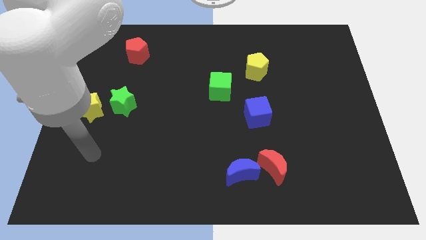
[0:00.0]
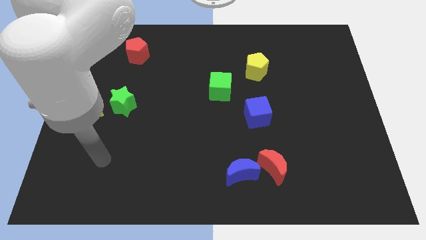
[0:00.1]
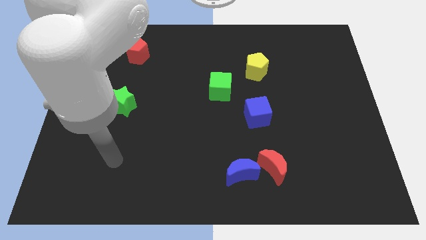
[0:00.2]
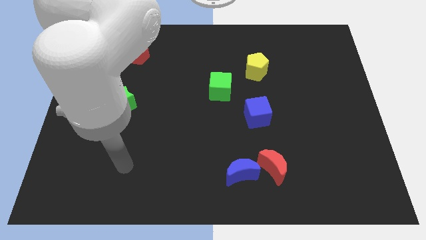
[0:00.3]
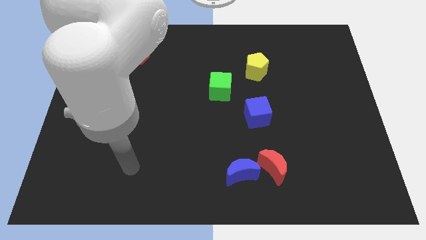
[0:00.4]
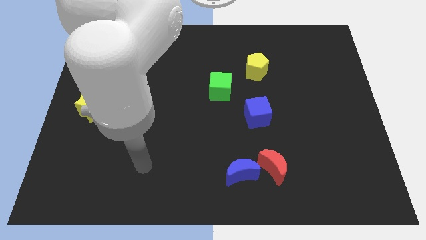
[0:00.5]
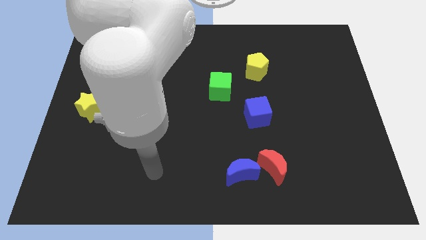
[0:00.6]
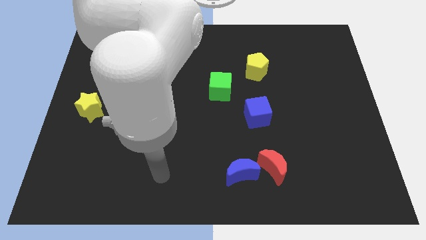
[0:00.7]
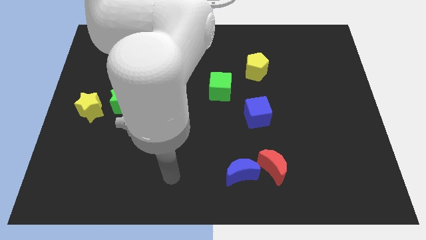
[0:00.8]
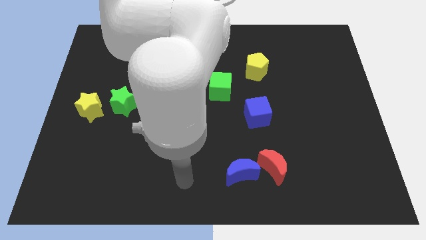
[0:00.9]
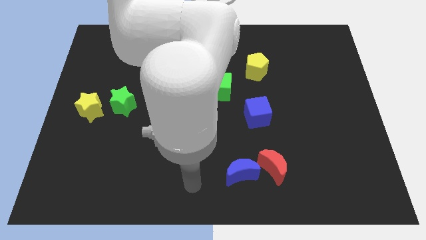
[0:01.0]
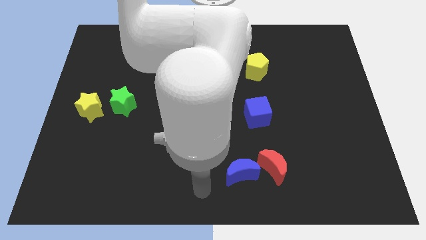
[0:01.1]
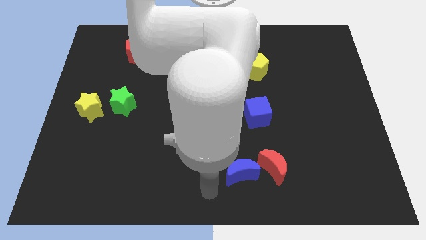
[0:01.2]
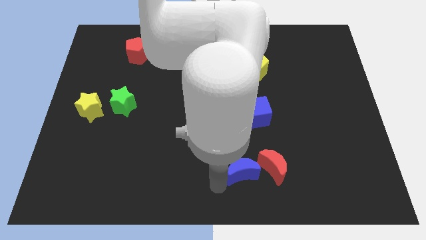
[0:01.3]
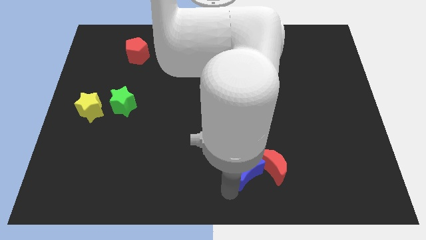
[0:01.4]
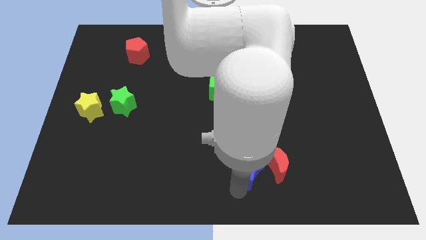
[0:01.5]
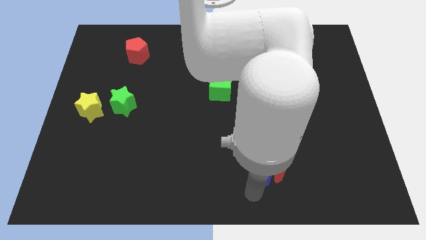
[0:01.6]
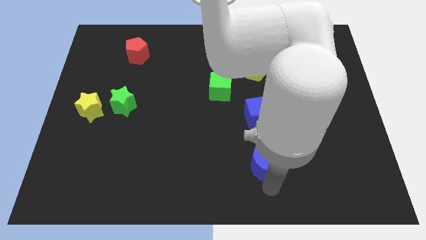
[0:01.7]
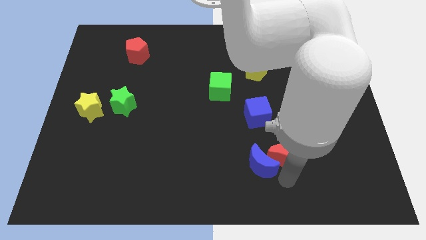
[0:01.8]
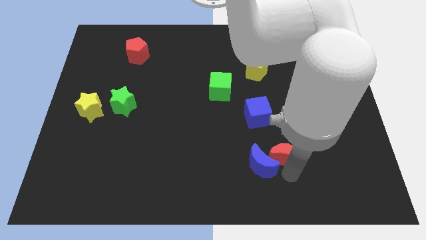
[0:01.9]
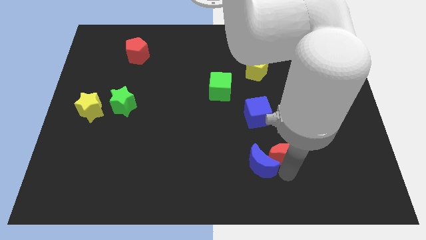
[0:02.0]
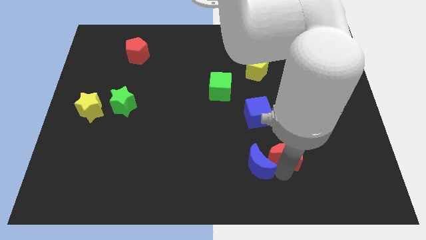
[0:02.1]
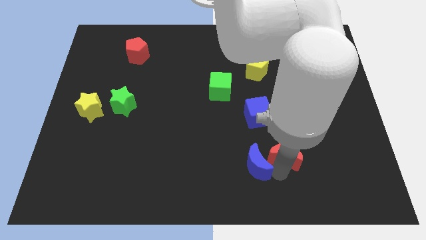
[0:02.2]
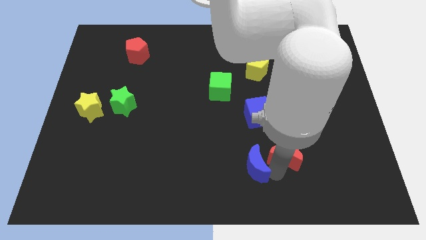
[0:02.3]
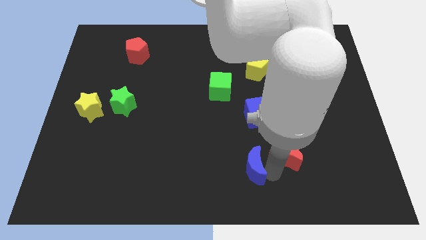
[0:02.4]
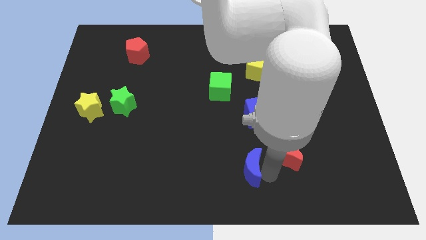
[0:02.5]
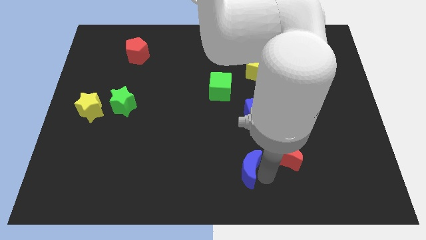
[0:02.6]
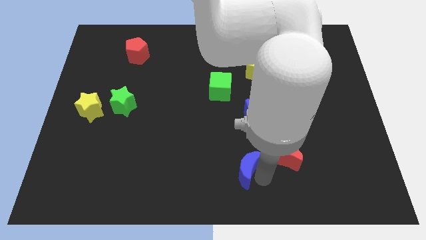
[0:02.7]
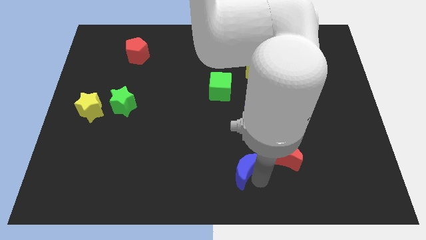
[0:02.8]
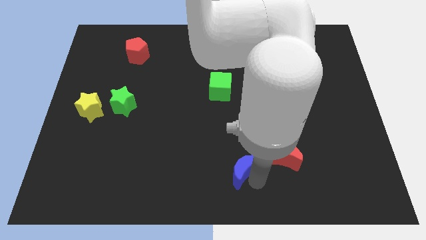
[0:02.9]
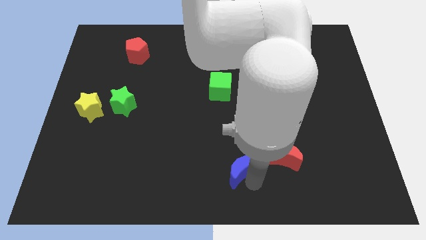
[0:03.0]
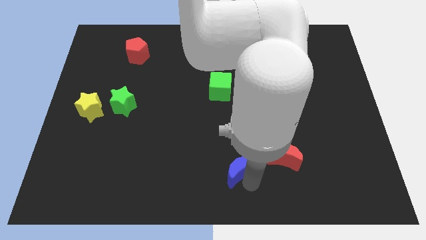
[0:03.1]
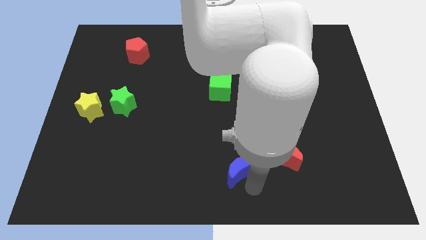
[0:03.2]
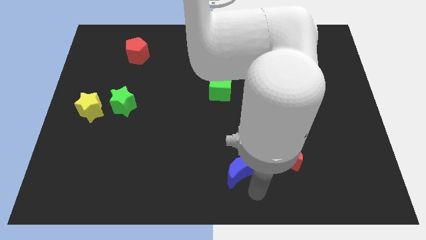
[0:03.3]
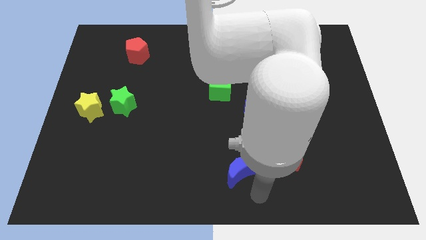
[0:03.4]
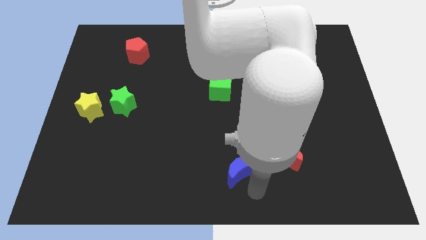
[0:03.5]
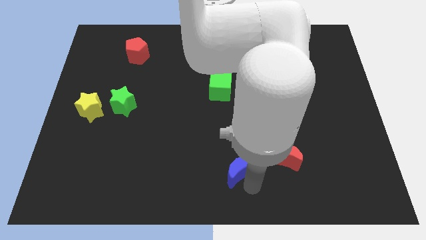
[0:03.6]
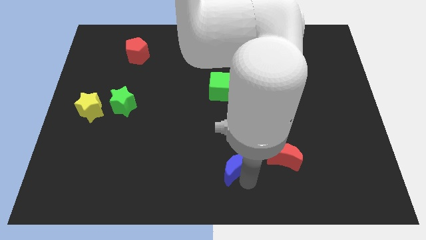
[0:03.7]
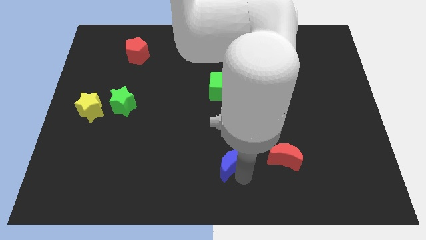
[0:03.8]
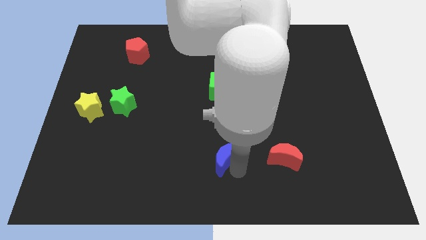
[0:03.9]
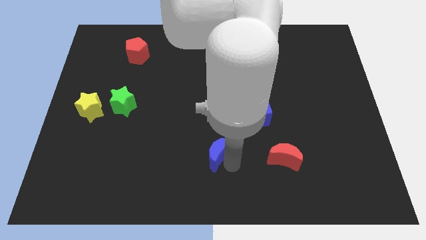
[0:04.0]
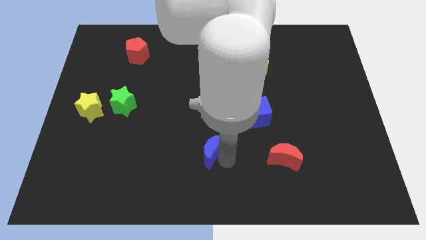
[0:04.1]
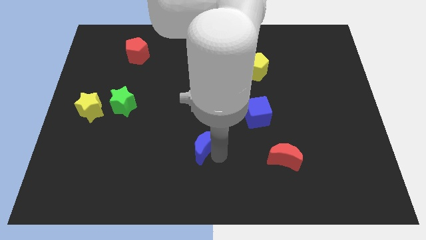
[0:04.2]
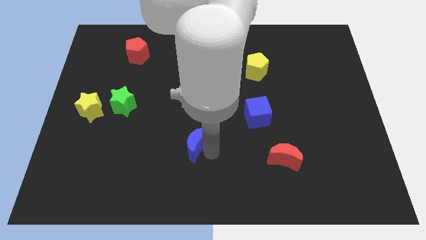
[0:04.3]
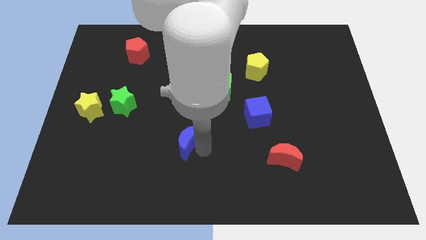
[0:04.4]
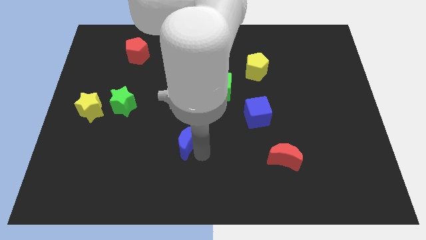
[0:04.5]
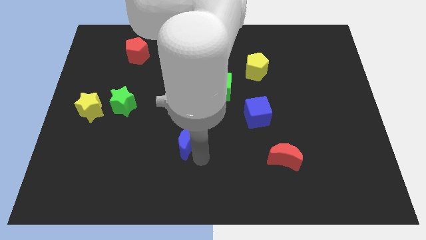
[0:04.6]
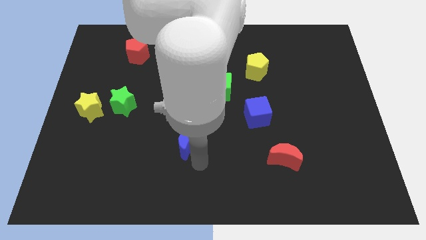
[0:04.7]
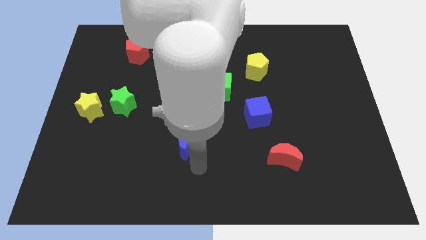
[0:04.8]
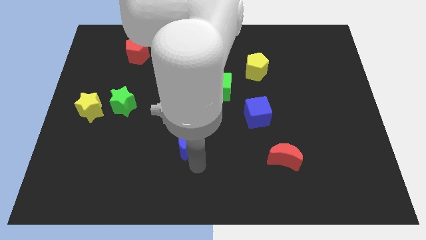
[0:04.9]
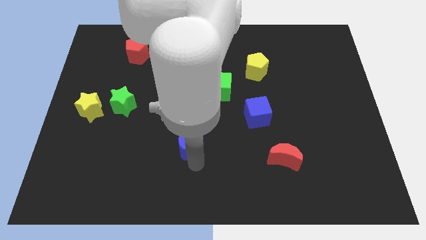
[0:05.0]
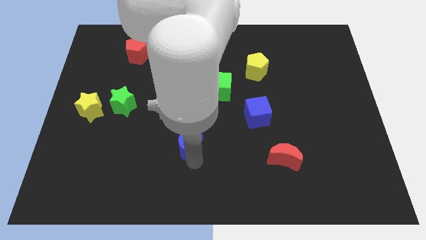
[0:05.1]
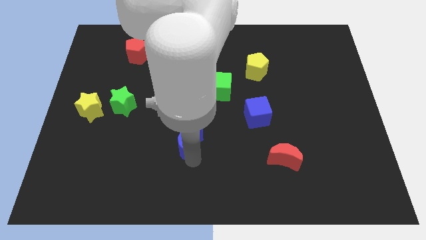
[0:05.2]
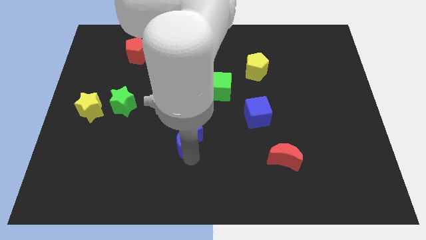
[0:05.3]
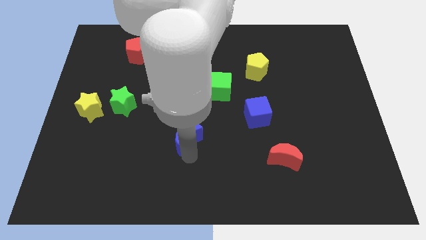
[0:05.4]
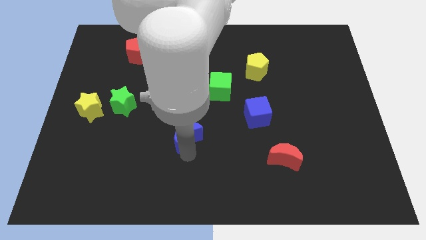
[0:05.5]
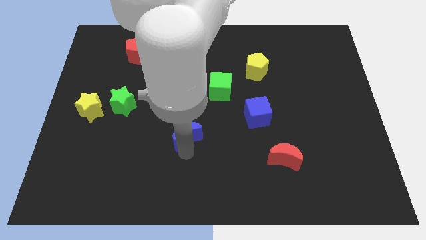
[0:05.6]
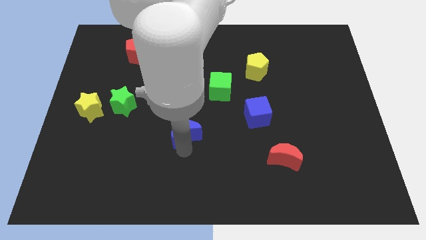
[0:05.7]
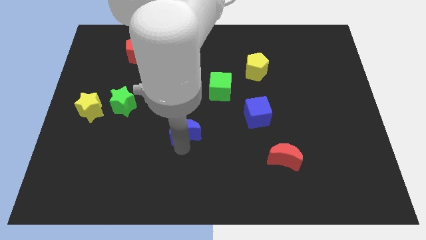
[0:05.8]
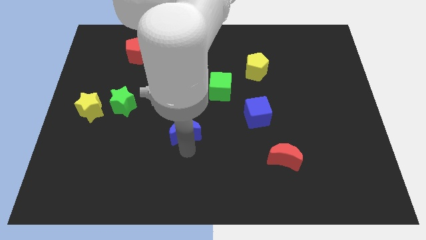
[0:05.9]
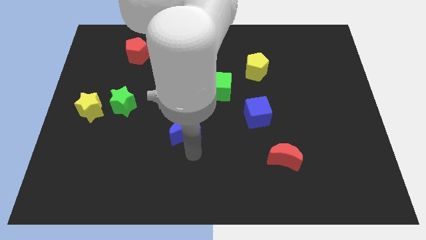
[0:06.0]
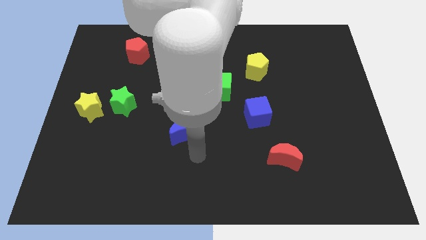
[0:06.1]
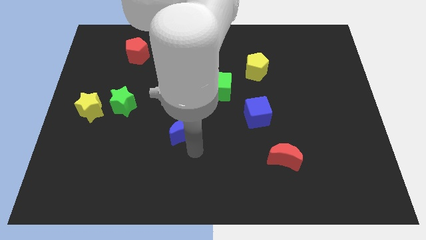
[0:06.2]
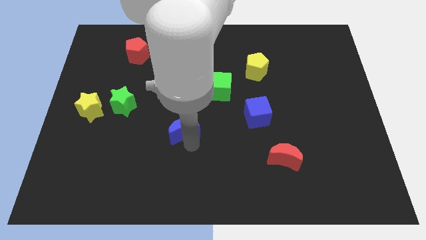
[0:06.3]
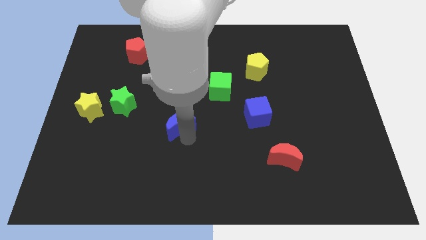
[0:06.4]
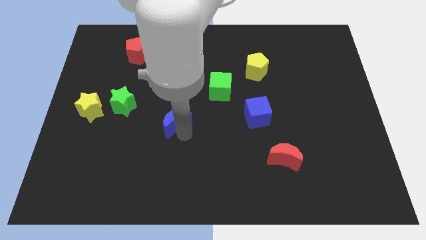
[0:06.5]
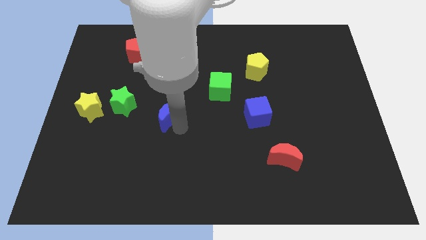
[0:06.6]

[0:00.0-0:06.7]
move the blue moon diagonally up and to the left

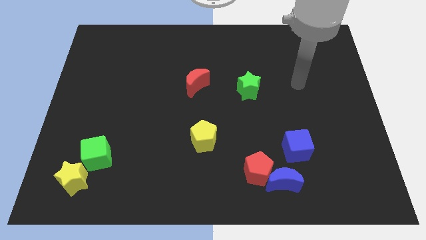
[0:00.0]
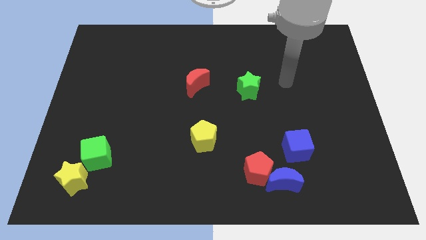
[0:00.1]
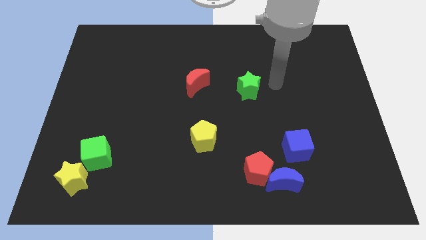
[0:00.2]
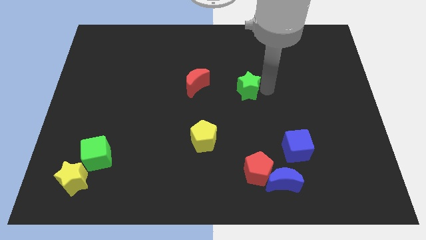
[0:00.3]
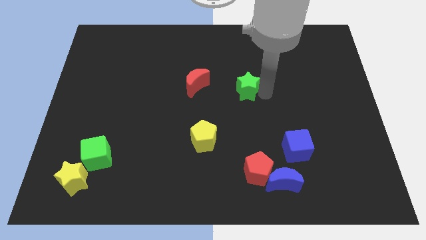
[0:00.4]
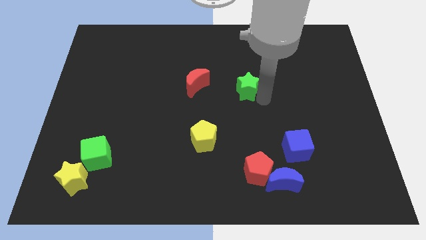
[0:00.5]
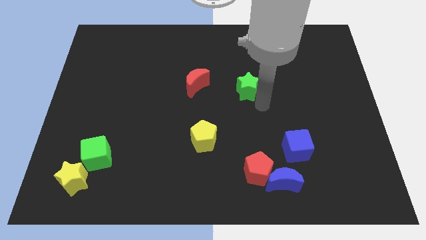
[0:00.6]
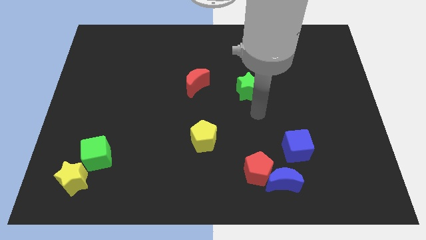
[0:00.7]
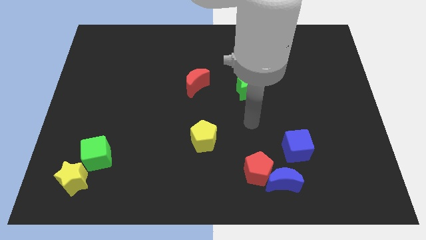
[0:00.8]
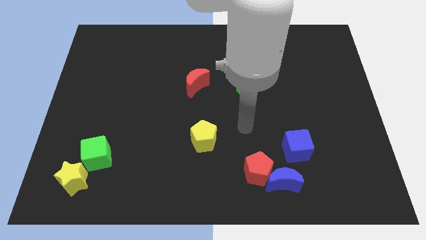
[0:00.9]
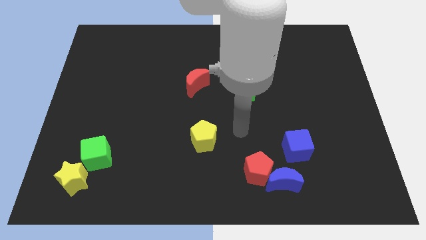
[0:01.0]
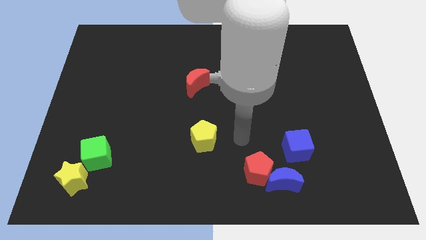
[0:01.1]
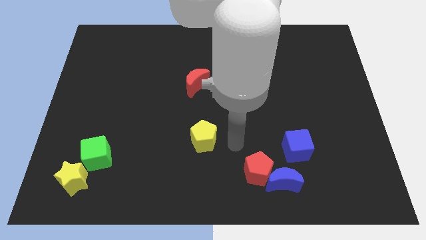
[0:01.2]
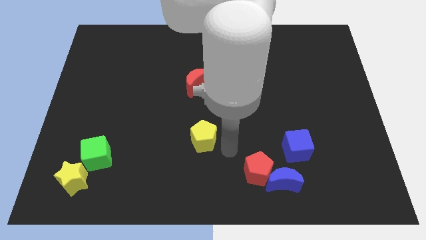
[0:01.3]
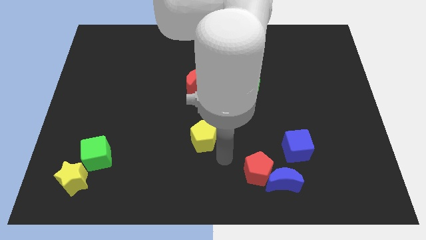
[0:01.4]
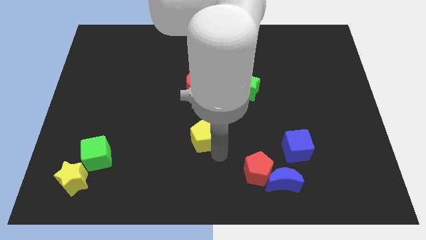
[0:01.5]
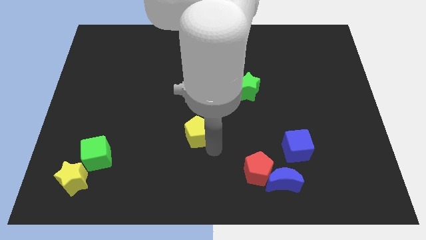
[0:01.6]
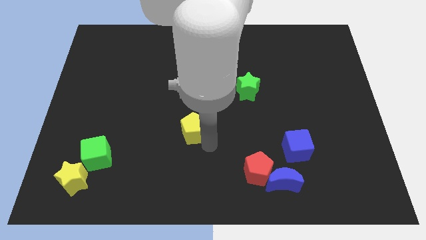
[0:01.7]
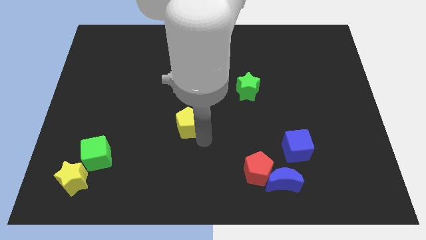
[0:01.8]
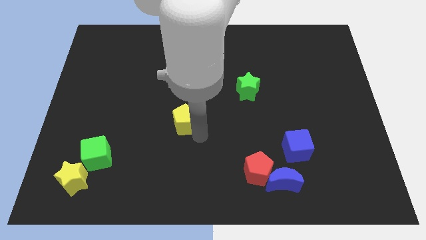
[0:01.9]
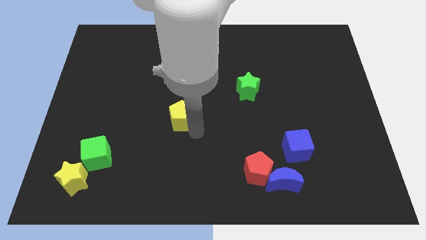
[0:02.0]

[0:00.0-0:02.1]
slightly slide the yellow pentagon up and left diagonally
